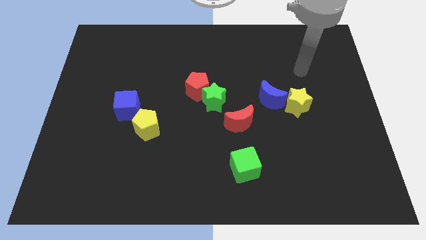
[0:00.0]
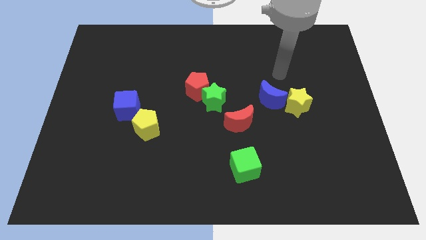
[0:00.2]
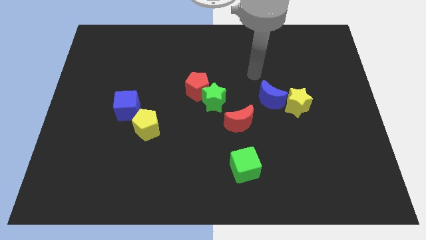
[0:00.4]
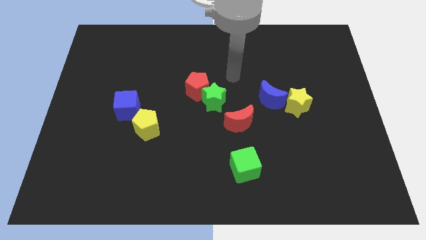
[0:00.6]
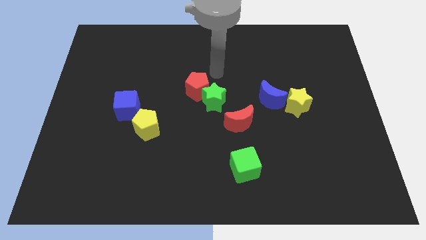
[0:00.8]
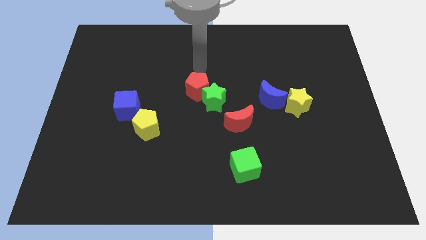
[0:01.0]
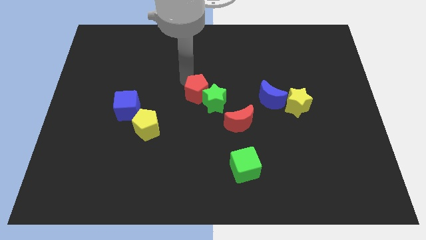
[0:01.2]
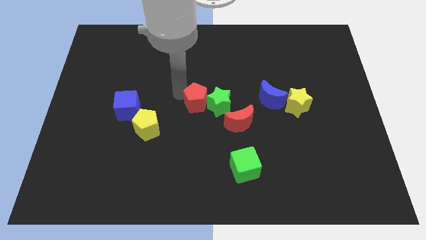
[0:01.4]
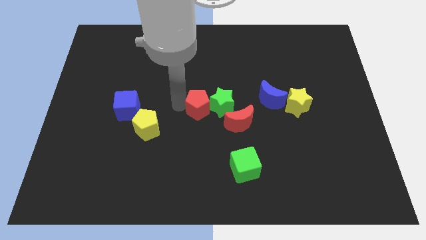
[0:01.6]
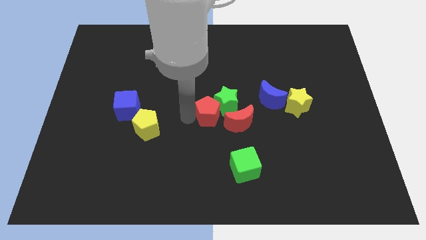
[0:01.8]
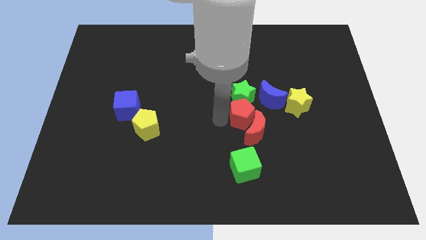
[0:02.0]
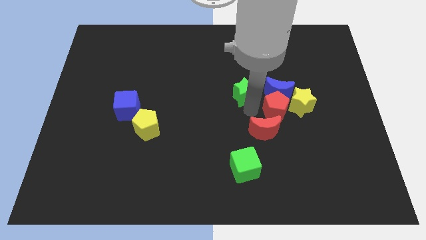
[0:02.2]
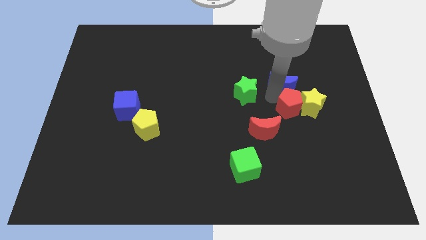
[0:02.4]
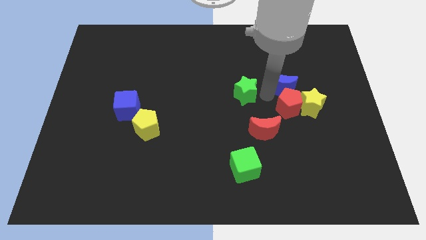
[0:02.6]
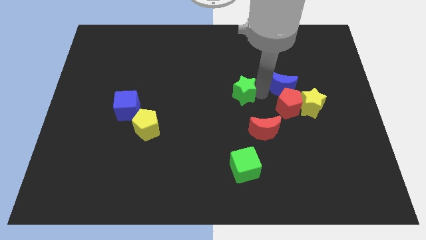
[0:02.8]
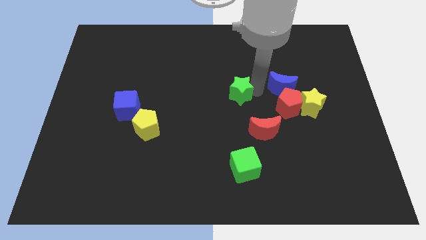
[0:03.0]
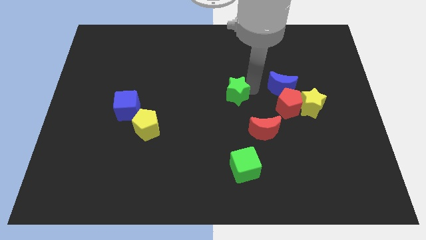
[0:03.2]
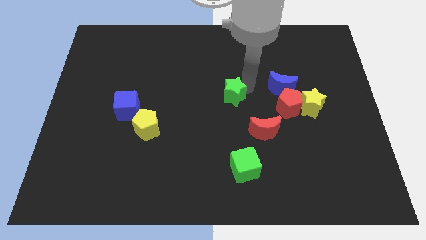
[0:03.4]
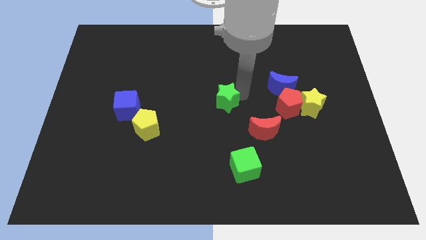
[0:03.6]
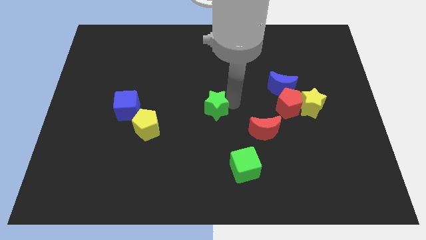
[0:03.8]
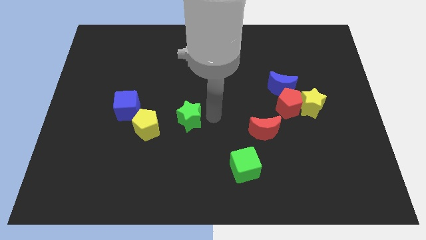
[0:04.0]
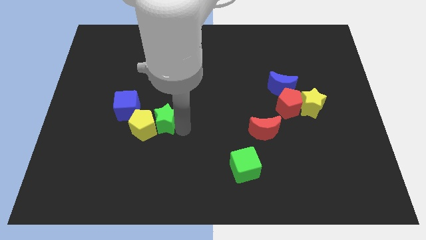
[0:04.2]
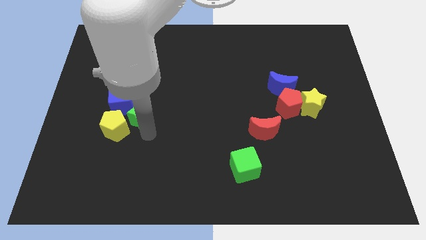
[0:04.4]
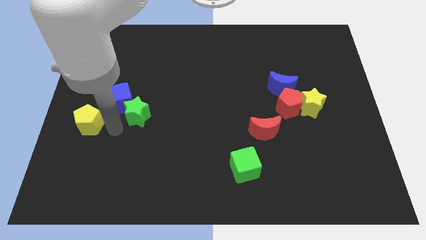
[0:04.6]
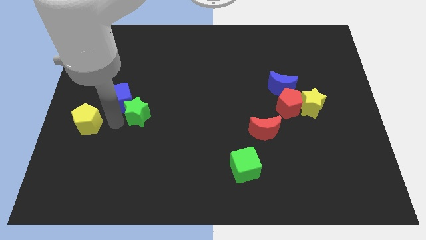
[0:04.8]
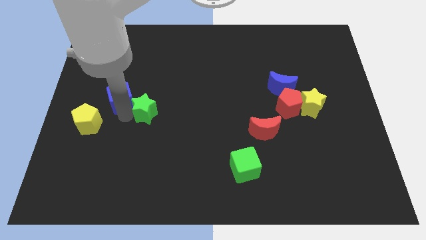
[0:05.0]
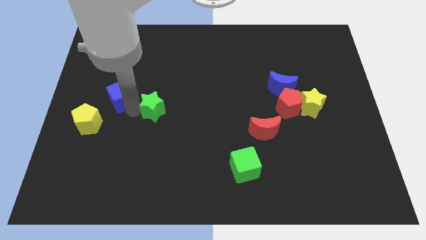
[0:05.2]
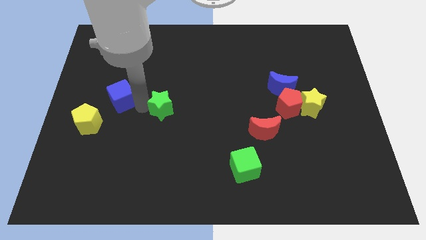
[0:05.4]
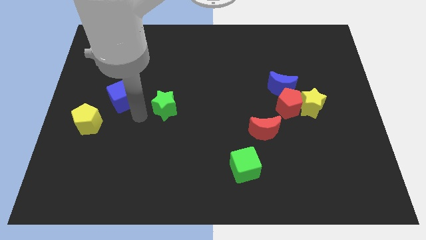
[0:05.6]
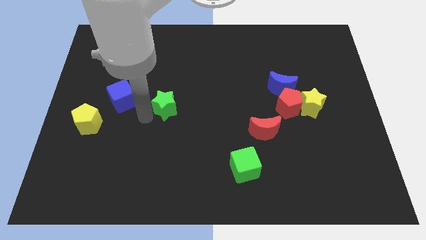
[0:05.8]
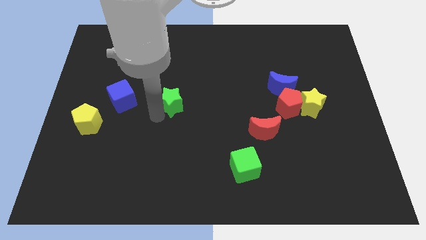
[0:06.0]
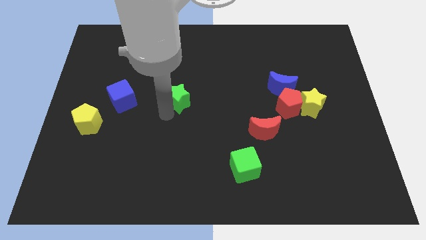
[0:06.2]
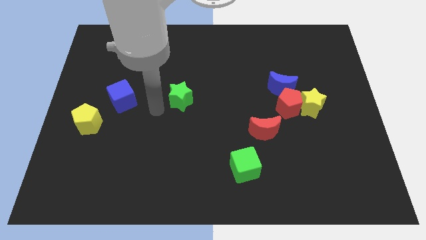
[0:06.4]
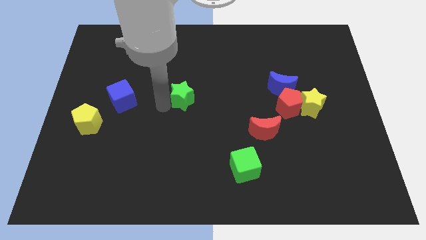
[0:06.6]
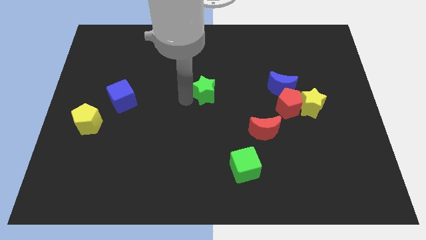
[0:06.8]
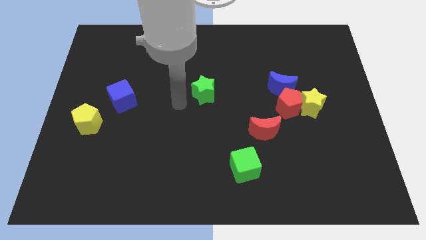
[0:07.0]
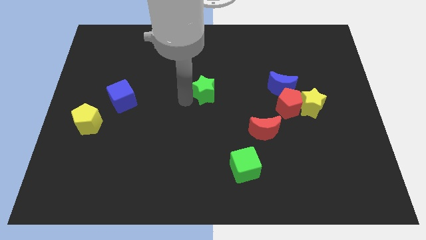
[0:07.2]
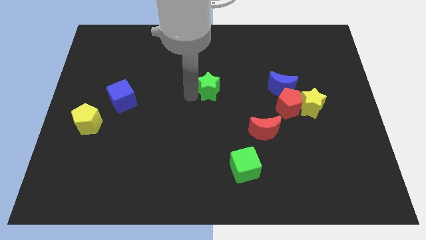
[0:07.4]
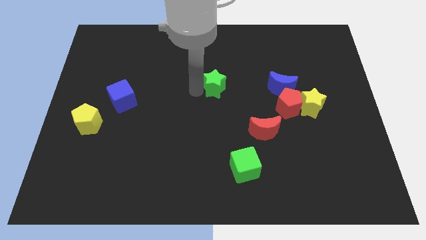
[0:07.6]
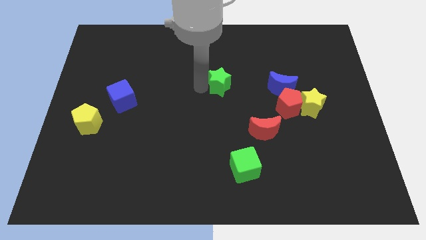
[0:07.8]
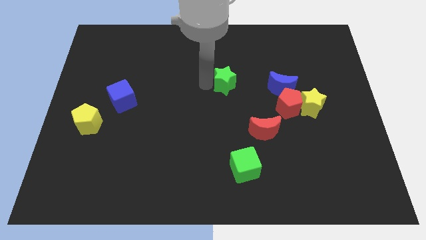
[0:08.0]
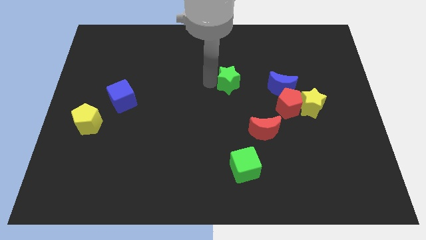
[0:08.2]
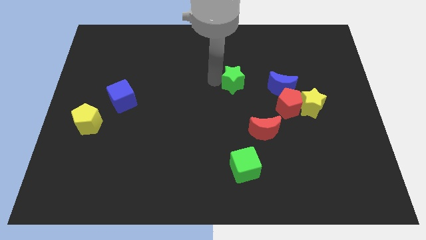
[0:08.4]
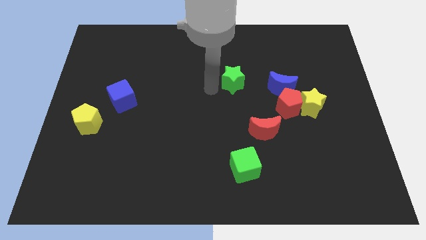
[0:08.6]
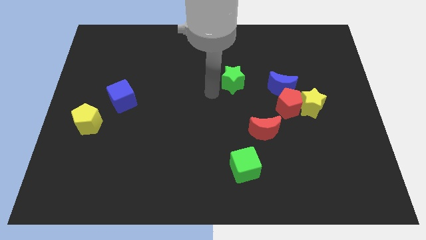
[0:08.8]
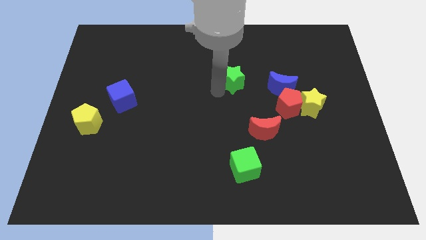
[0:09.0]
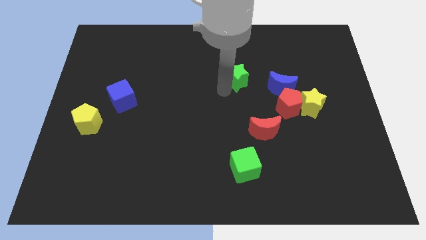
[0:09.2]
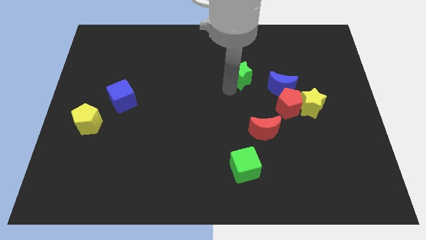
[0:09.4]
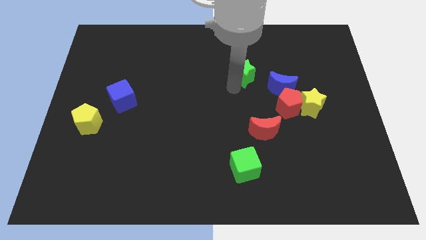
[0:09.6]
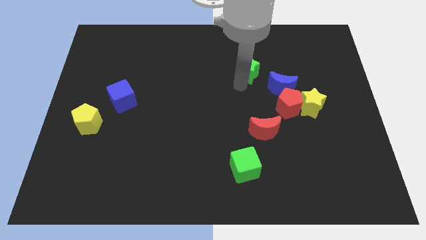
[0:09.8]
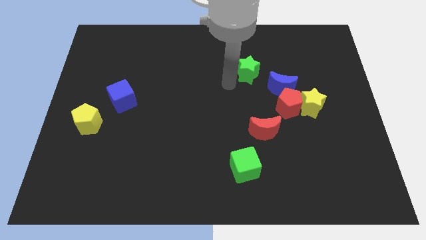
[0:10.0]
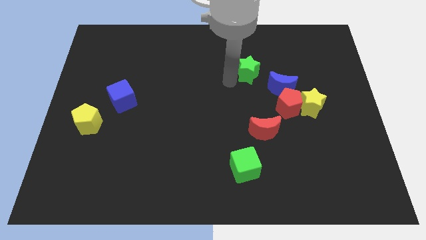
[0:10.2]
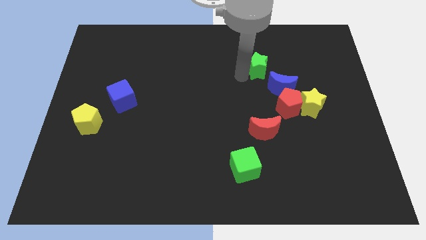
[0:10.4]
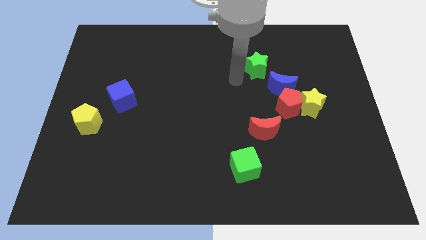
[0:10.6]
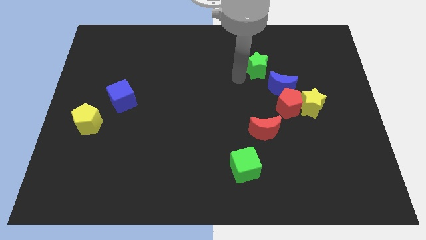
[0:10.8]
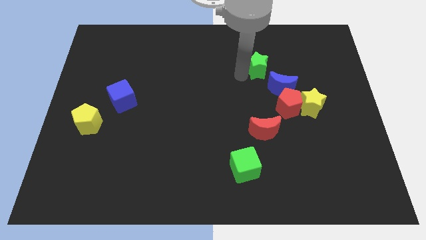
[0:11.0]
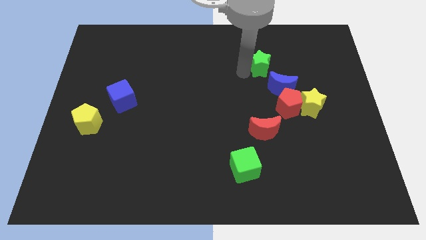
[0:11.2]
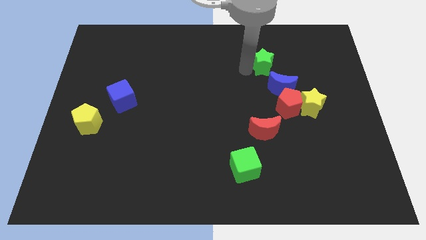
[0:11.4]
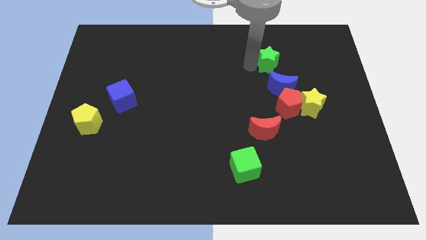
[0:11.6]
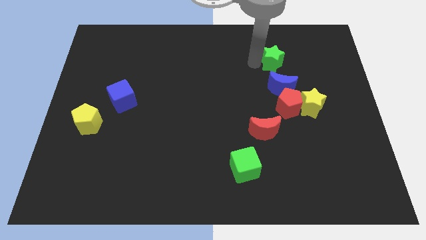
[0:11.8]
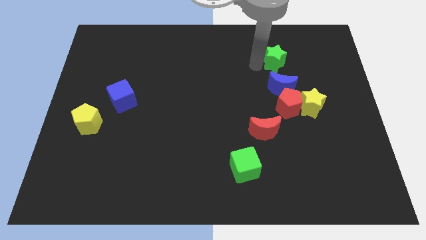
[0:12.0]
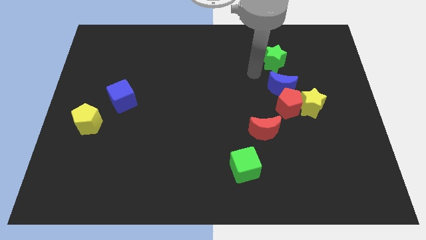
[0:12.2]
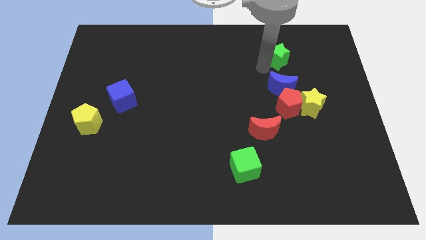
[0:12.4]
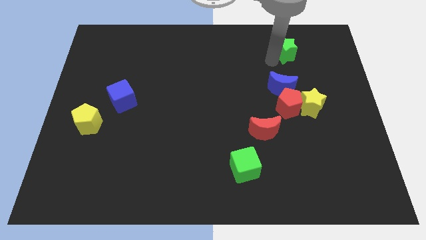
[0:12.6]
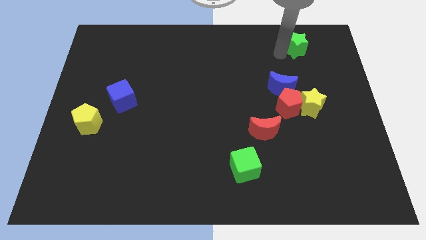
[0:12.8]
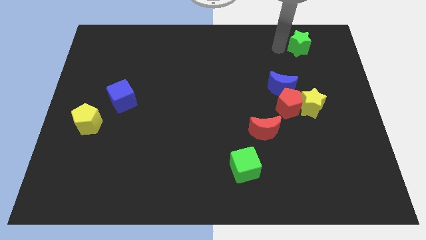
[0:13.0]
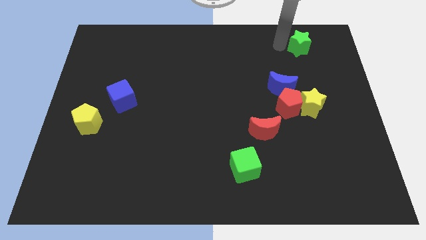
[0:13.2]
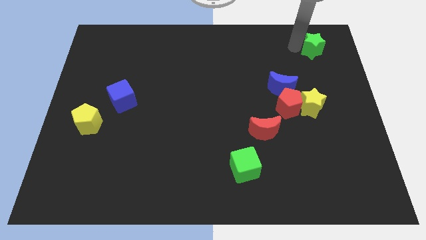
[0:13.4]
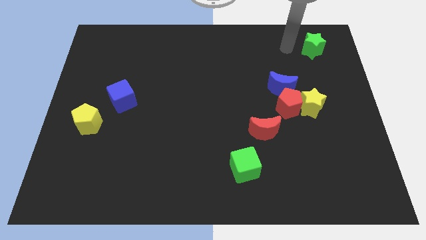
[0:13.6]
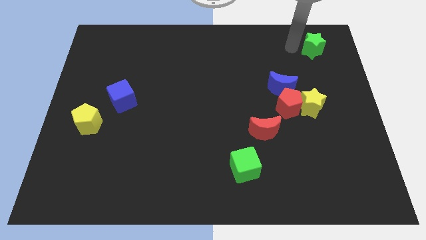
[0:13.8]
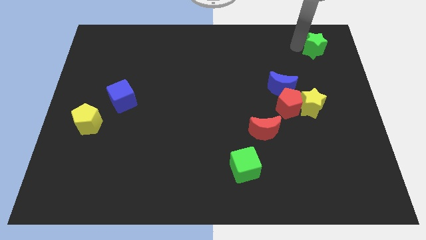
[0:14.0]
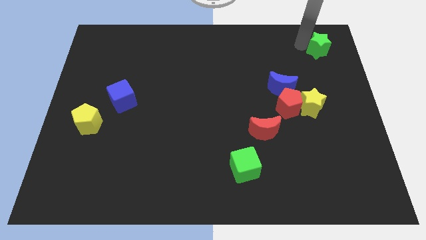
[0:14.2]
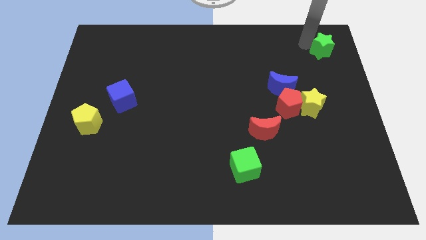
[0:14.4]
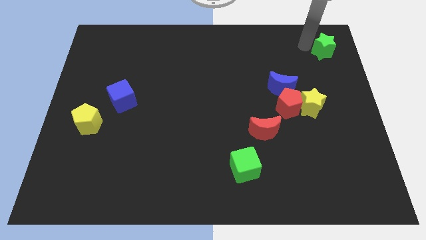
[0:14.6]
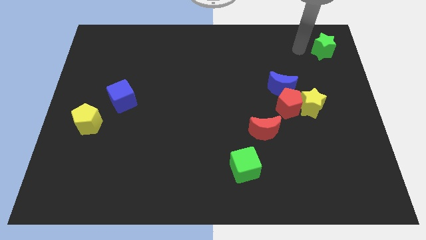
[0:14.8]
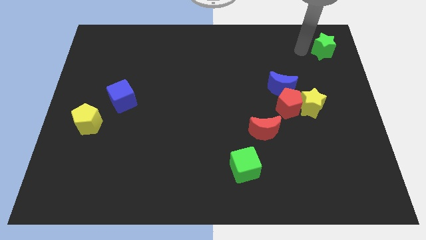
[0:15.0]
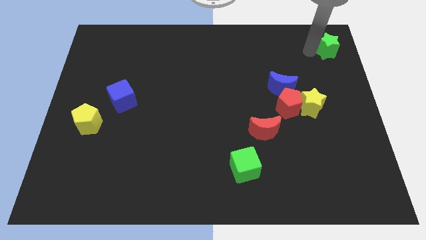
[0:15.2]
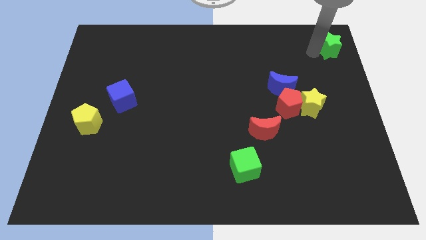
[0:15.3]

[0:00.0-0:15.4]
slide the green star to the top right
